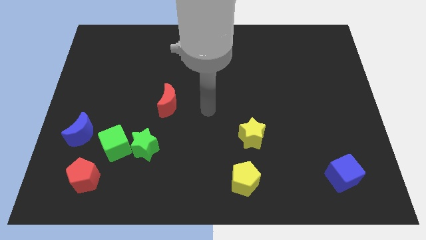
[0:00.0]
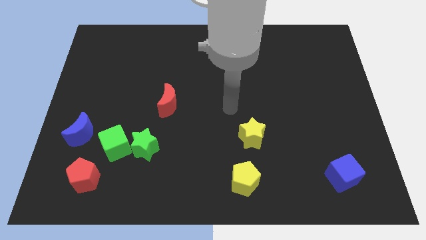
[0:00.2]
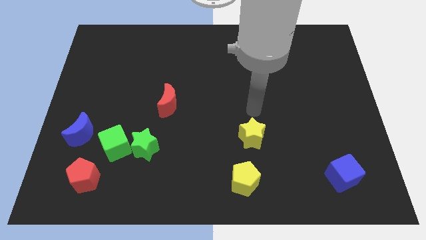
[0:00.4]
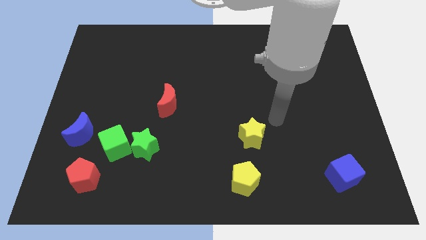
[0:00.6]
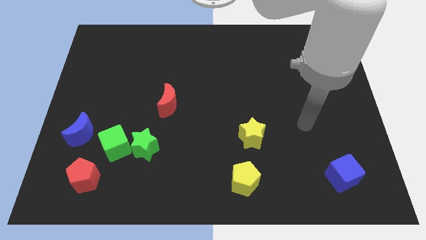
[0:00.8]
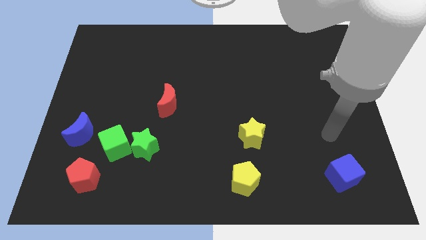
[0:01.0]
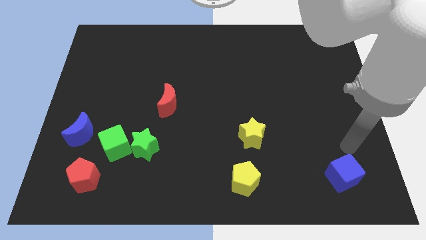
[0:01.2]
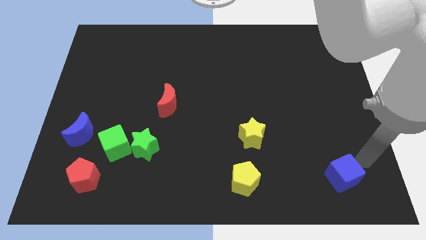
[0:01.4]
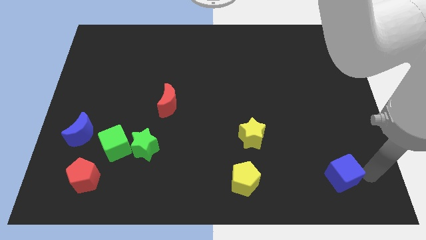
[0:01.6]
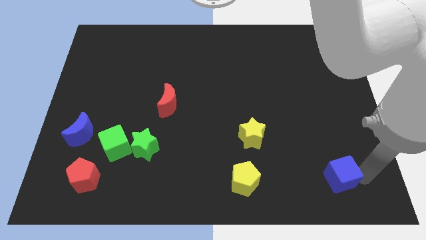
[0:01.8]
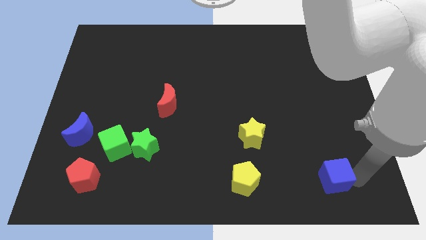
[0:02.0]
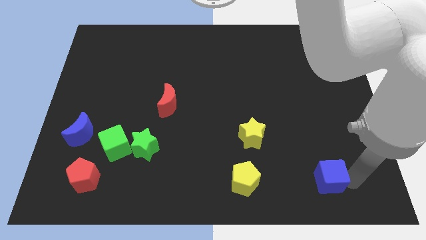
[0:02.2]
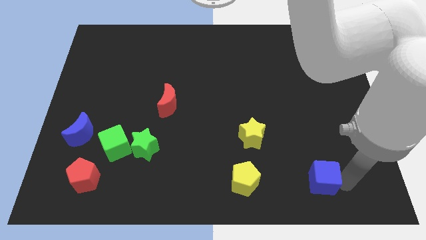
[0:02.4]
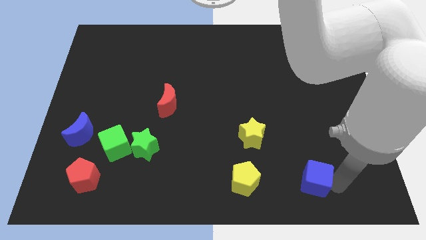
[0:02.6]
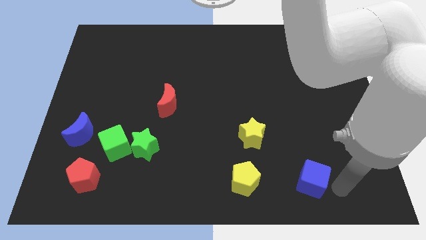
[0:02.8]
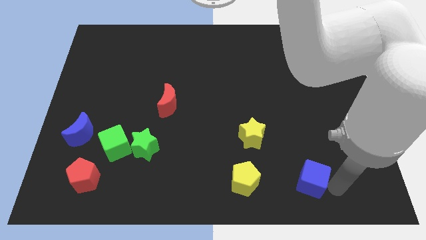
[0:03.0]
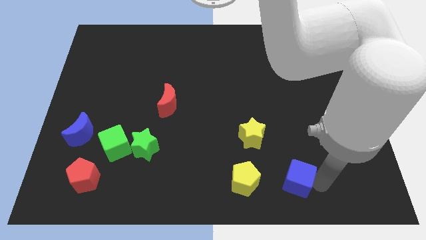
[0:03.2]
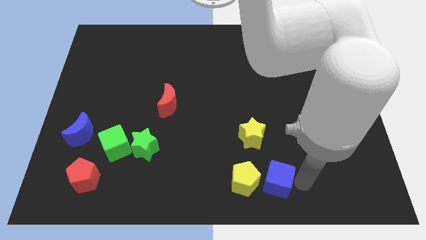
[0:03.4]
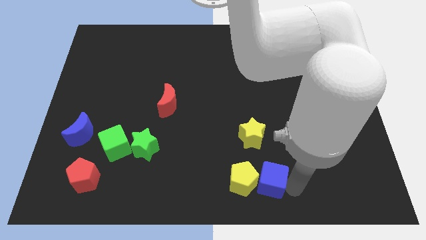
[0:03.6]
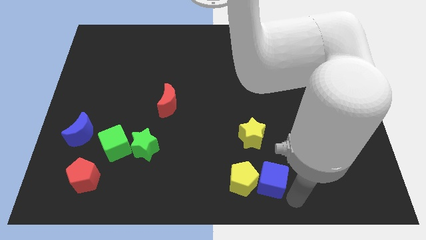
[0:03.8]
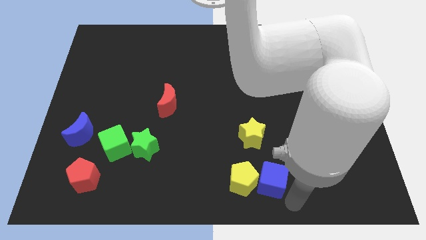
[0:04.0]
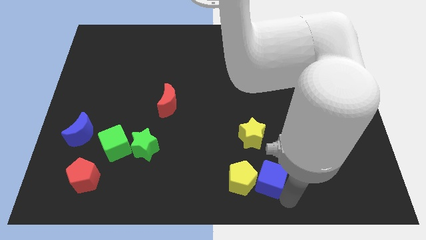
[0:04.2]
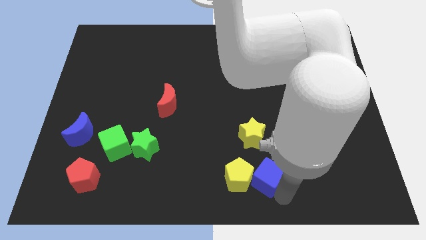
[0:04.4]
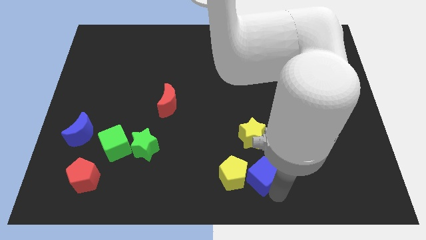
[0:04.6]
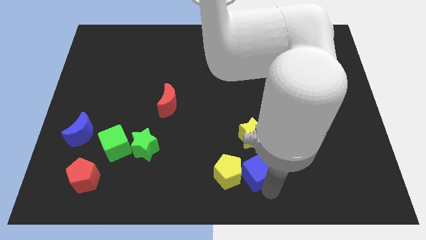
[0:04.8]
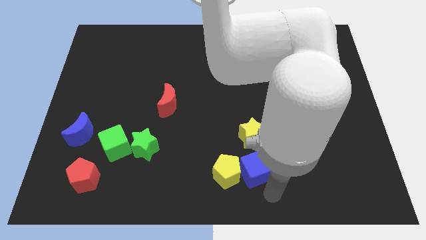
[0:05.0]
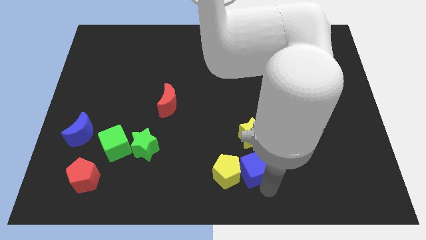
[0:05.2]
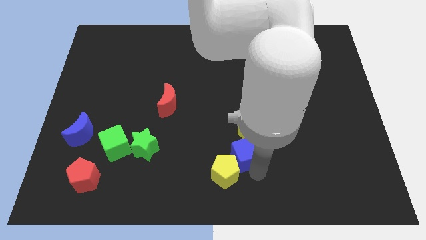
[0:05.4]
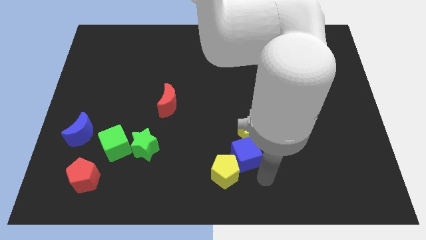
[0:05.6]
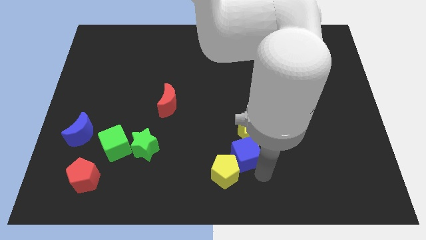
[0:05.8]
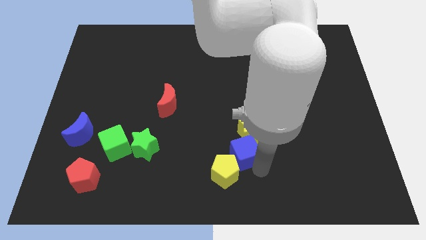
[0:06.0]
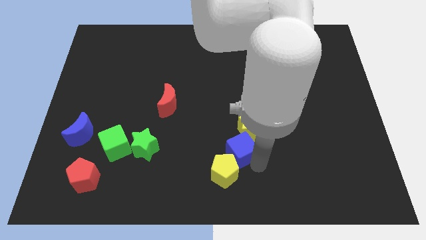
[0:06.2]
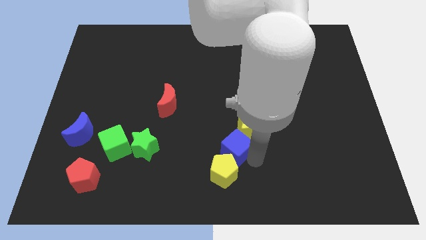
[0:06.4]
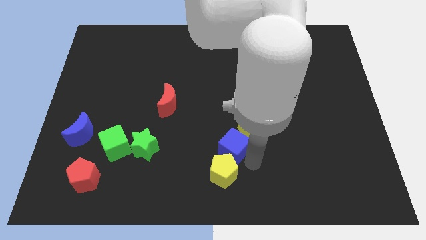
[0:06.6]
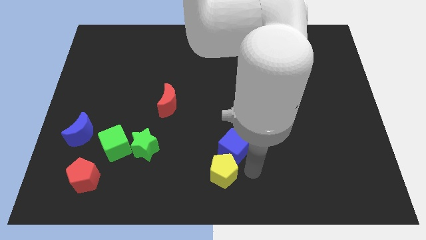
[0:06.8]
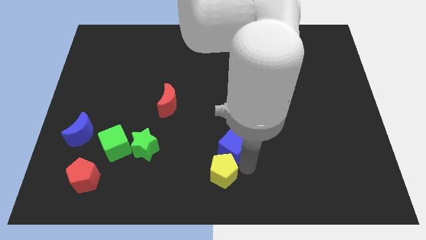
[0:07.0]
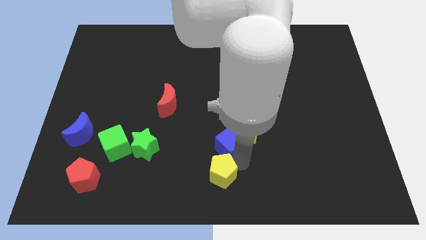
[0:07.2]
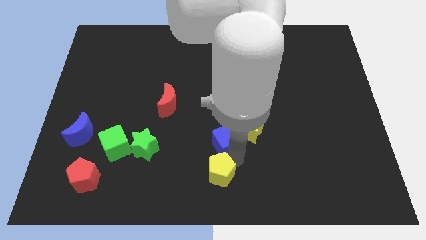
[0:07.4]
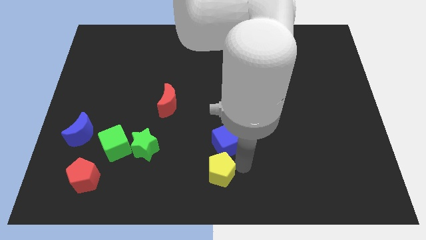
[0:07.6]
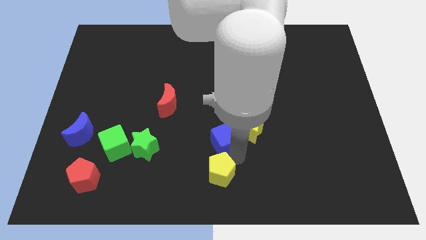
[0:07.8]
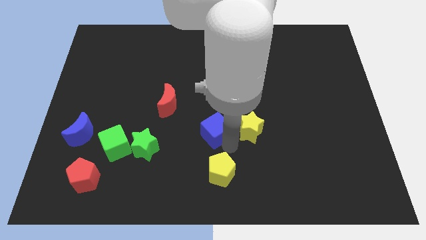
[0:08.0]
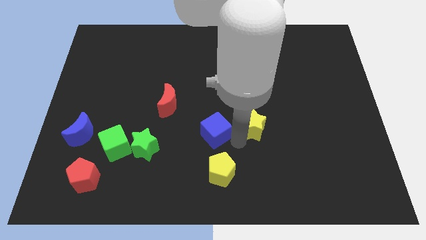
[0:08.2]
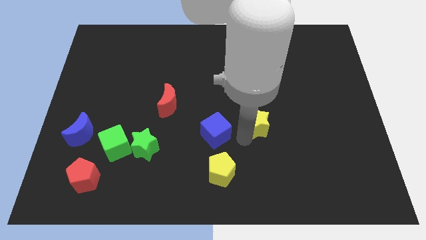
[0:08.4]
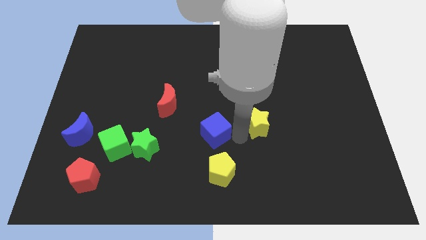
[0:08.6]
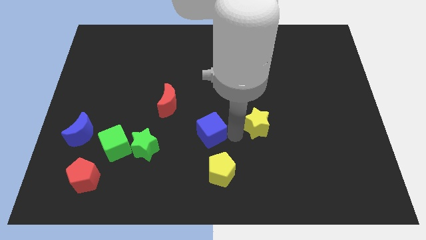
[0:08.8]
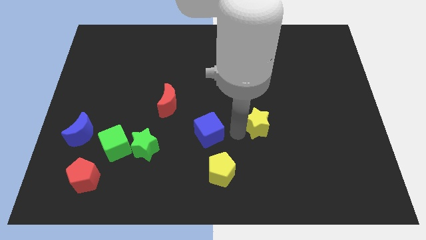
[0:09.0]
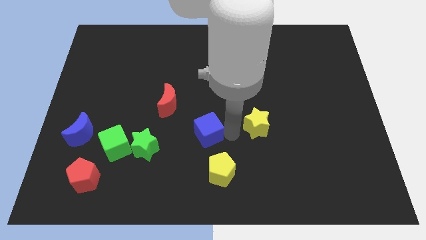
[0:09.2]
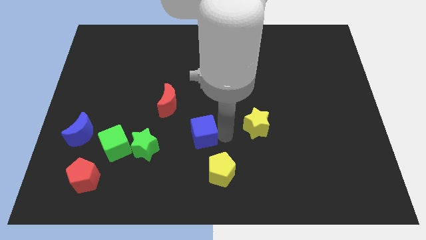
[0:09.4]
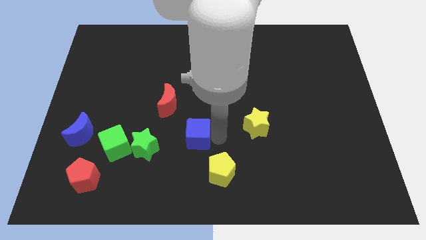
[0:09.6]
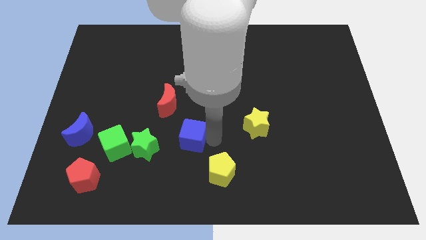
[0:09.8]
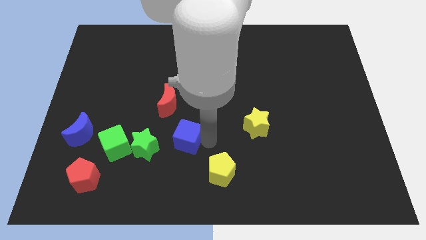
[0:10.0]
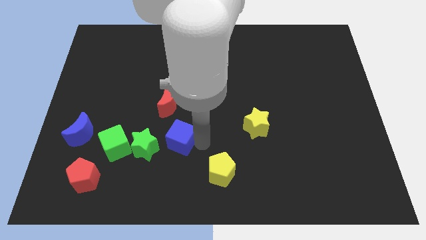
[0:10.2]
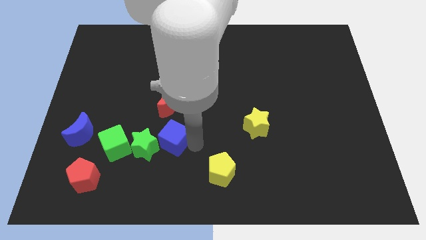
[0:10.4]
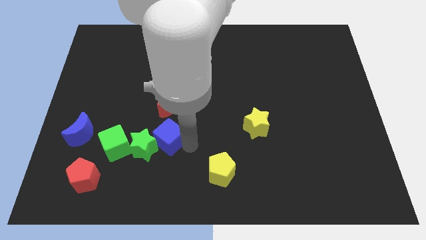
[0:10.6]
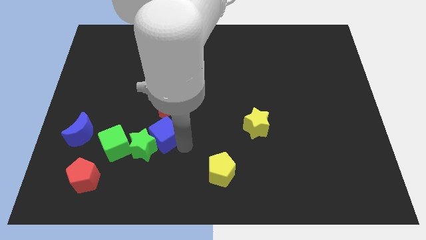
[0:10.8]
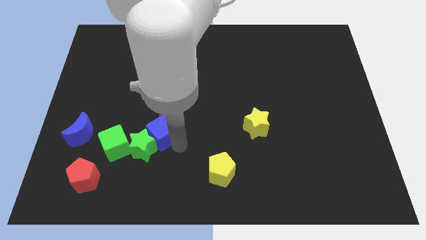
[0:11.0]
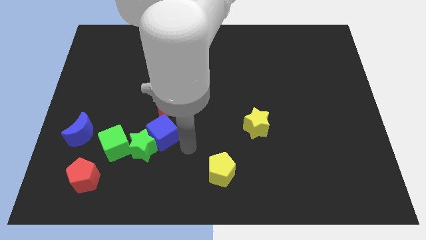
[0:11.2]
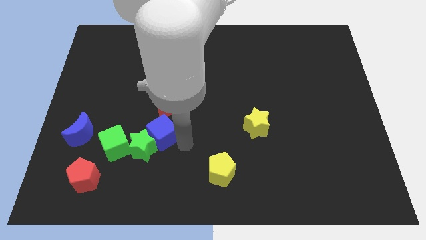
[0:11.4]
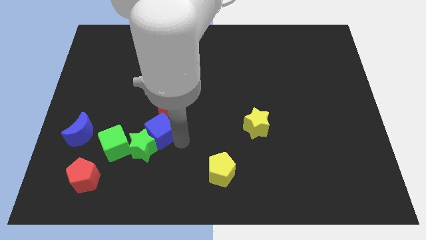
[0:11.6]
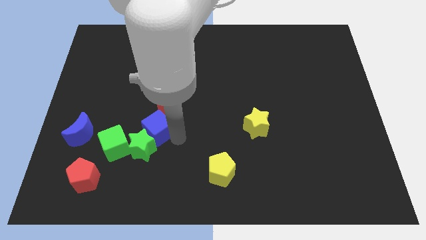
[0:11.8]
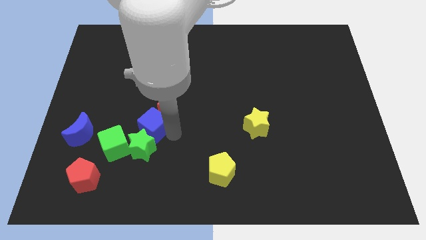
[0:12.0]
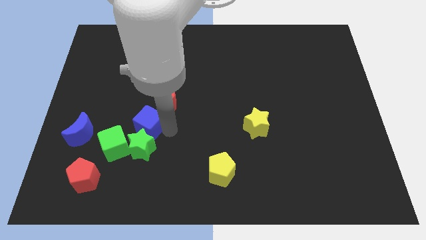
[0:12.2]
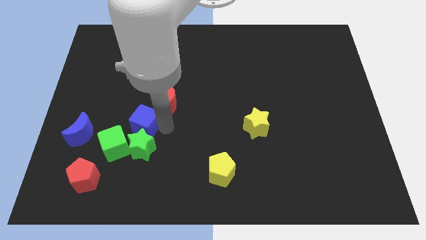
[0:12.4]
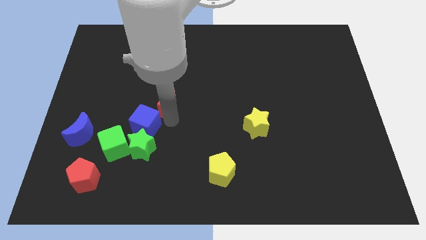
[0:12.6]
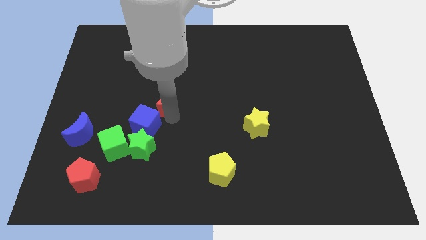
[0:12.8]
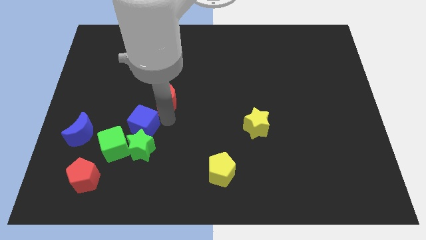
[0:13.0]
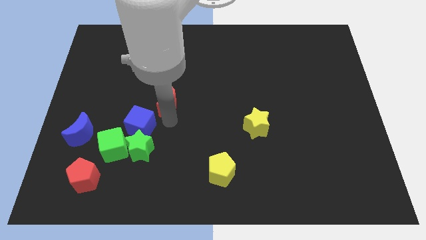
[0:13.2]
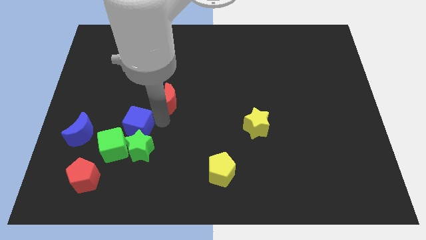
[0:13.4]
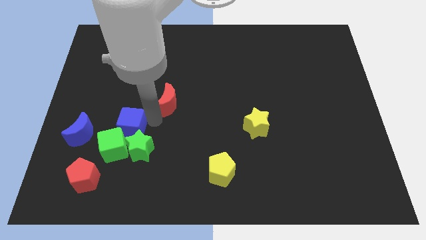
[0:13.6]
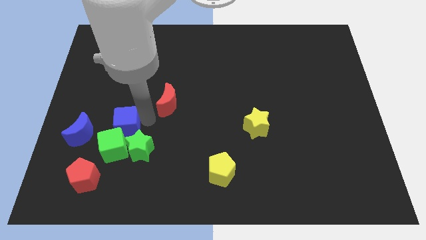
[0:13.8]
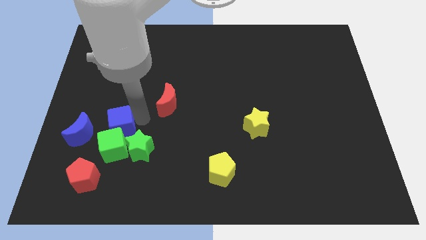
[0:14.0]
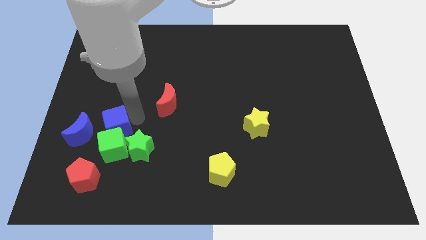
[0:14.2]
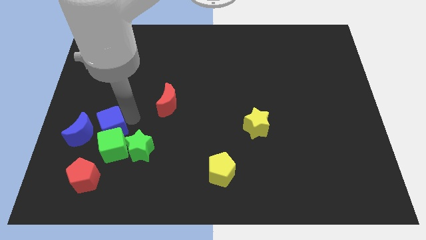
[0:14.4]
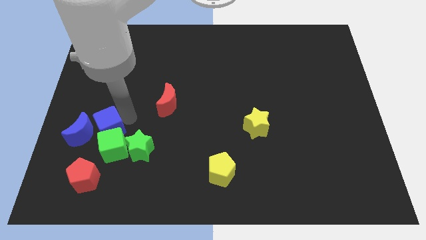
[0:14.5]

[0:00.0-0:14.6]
put the blue cube to the blue moon
